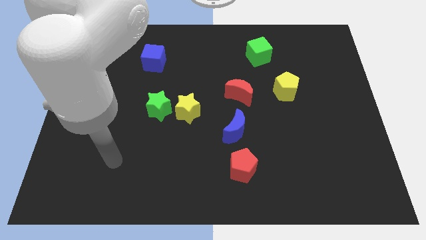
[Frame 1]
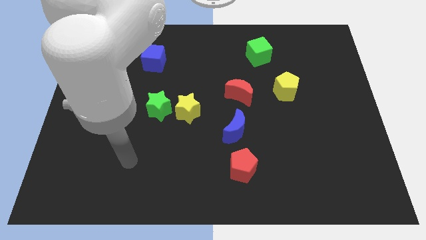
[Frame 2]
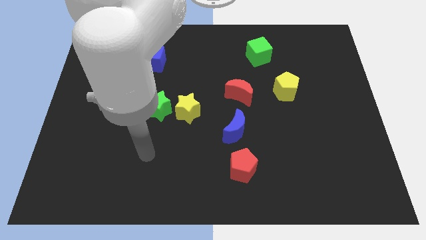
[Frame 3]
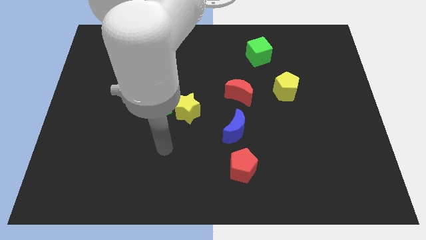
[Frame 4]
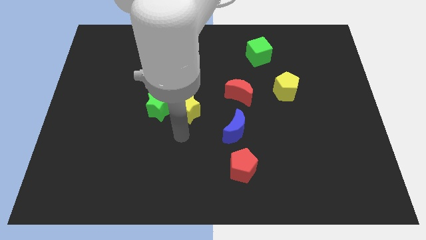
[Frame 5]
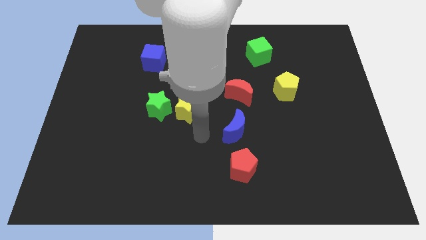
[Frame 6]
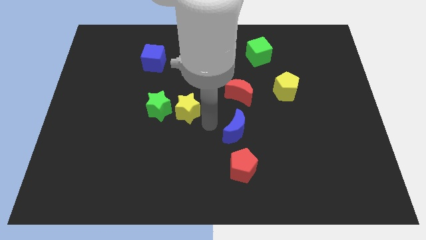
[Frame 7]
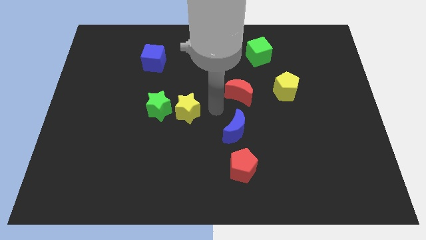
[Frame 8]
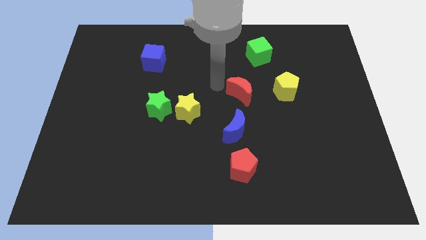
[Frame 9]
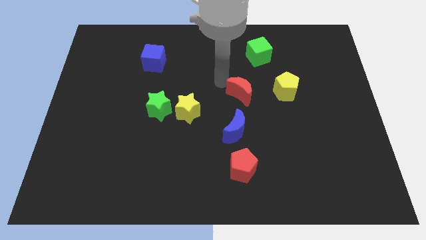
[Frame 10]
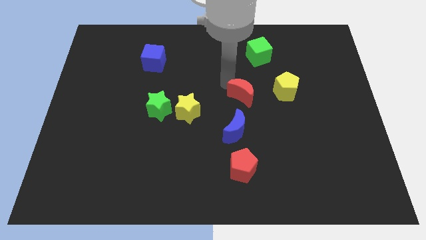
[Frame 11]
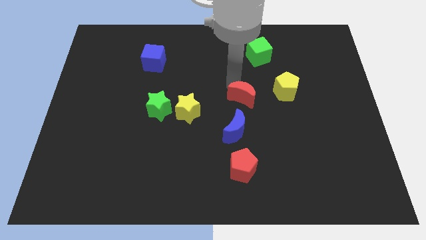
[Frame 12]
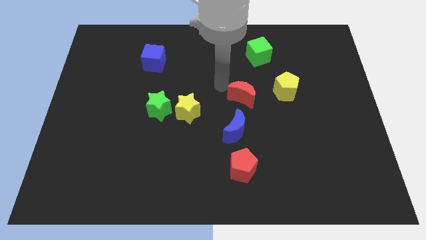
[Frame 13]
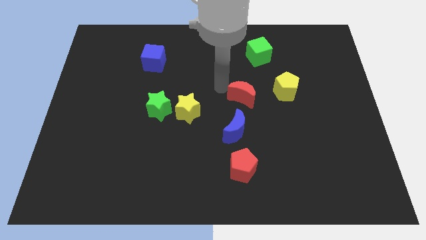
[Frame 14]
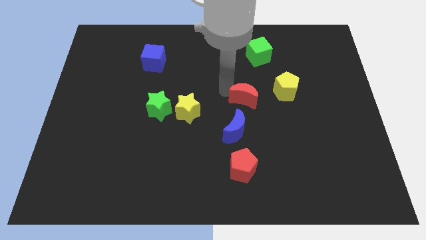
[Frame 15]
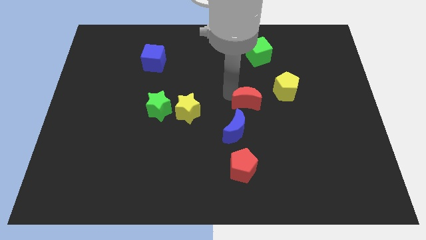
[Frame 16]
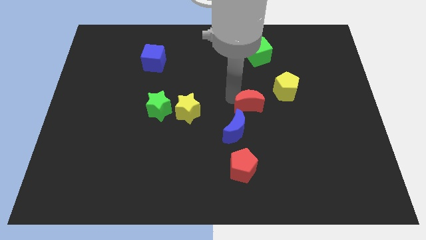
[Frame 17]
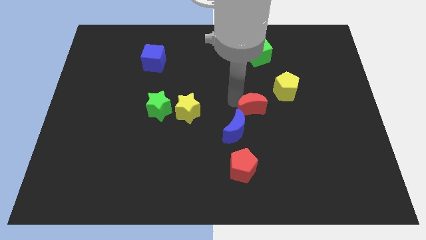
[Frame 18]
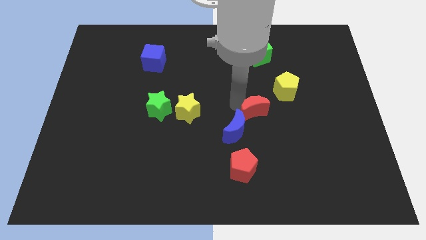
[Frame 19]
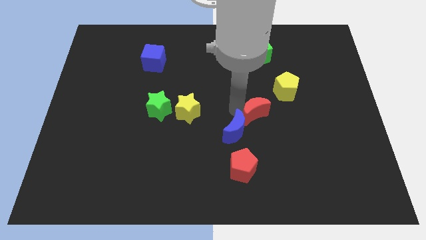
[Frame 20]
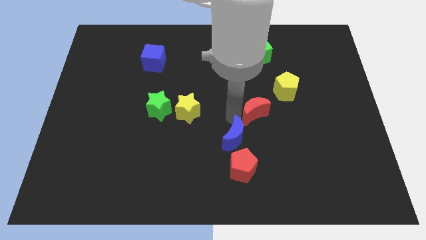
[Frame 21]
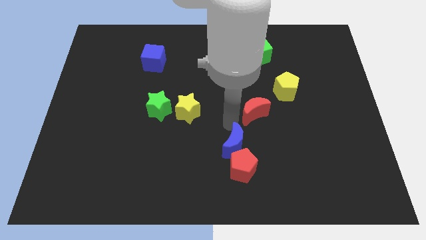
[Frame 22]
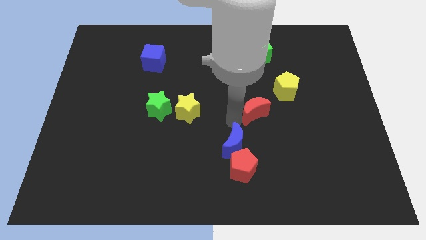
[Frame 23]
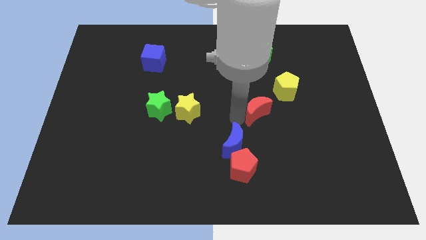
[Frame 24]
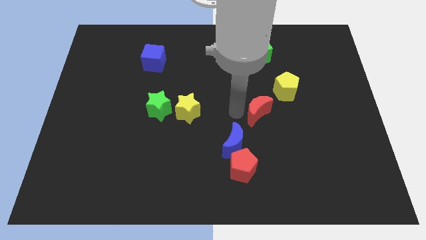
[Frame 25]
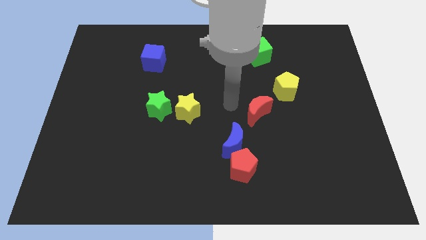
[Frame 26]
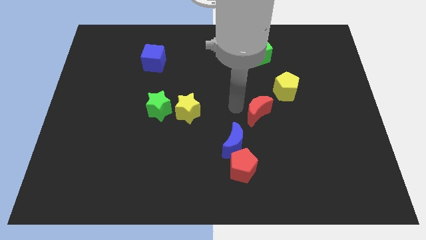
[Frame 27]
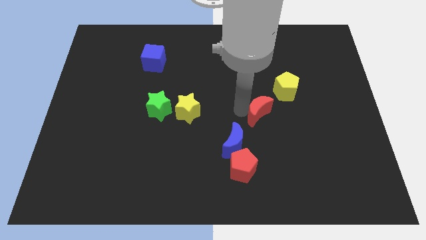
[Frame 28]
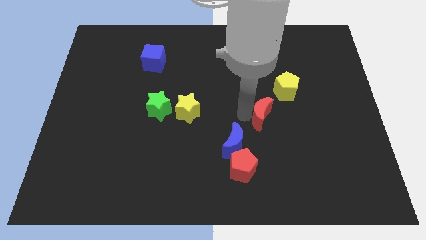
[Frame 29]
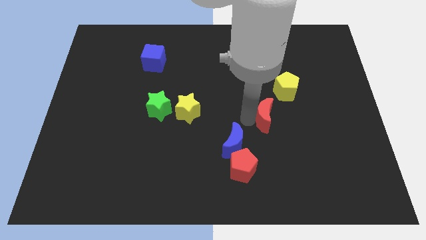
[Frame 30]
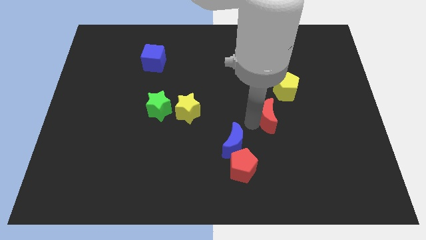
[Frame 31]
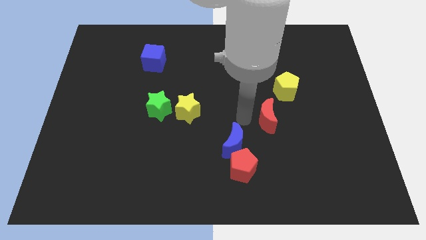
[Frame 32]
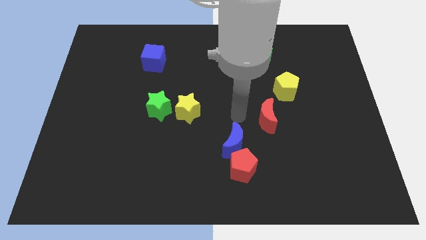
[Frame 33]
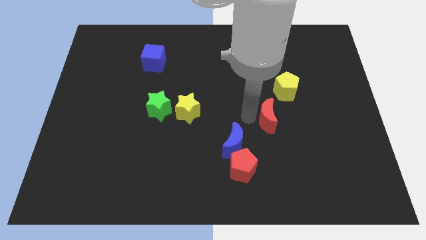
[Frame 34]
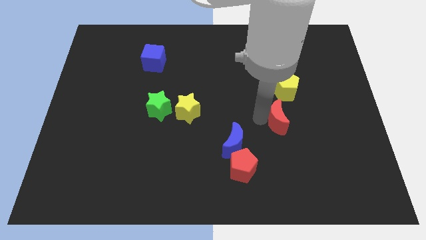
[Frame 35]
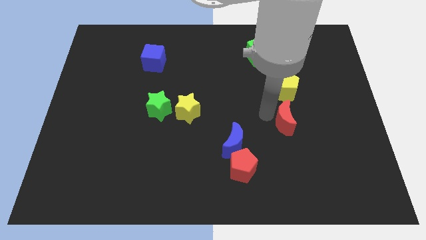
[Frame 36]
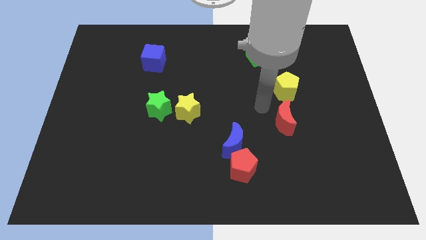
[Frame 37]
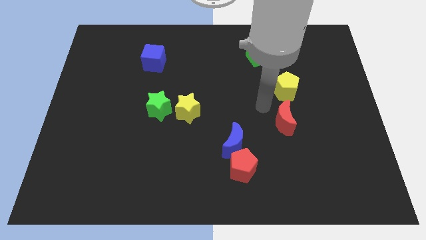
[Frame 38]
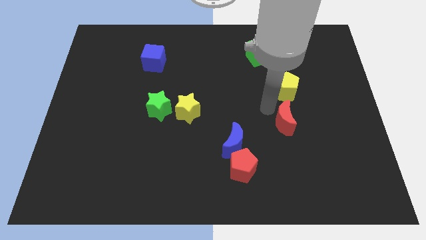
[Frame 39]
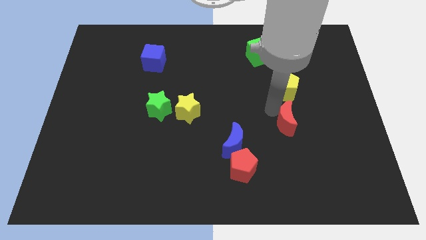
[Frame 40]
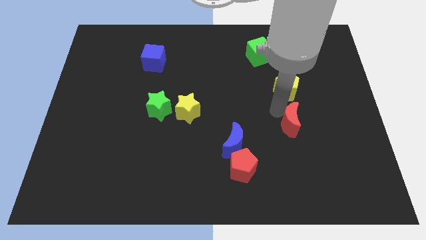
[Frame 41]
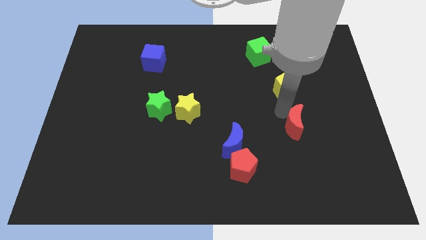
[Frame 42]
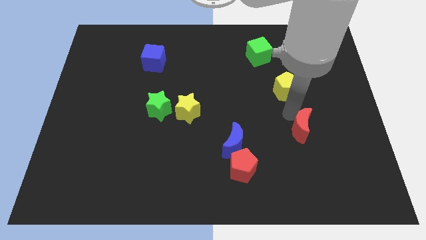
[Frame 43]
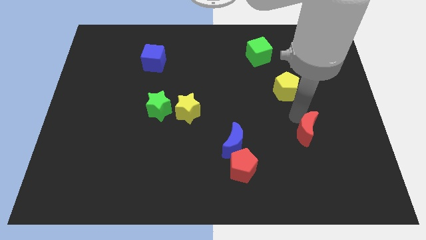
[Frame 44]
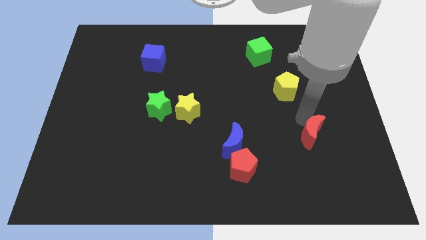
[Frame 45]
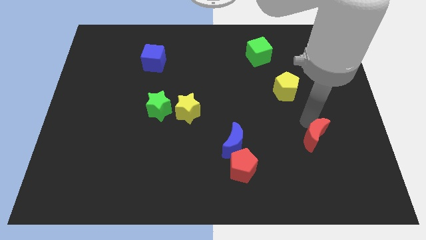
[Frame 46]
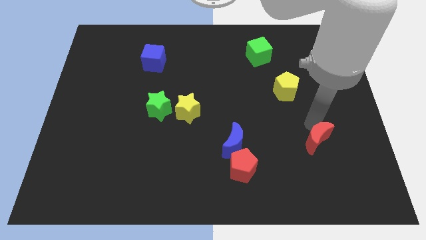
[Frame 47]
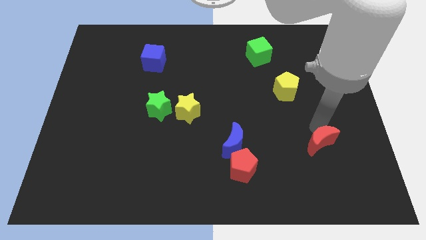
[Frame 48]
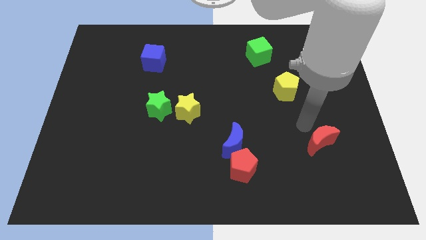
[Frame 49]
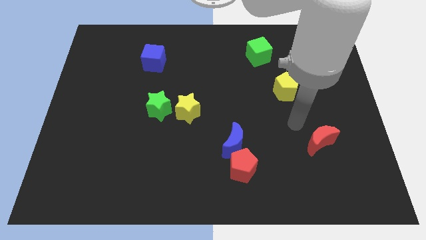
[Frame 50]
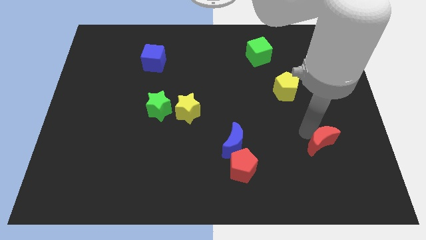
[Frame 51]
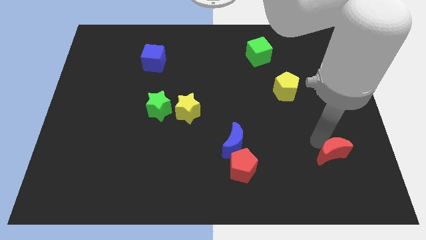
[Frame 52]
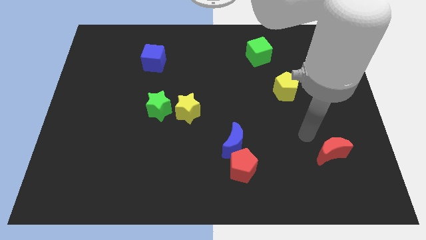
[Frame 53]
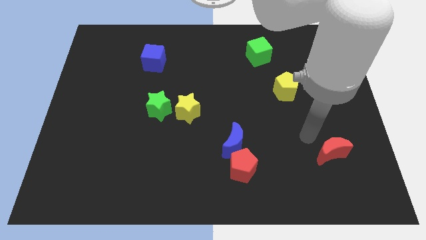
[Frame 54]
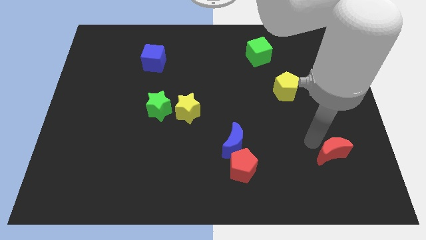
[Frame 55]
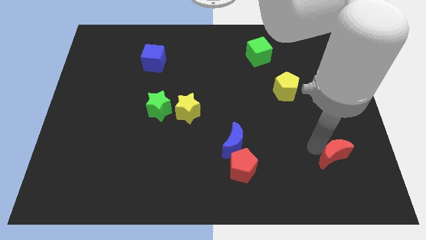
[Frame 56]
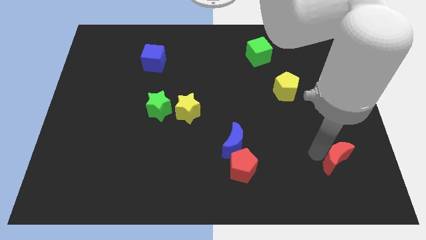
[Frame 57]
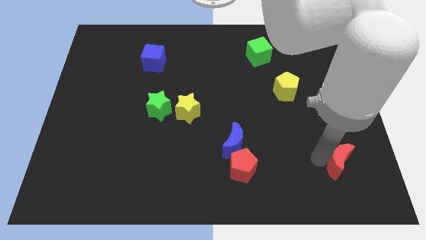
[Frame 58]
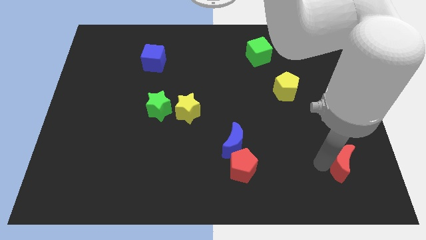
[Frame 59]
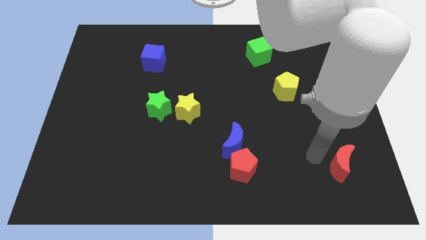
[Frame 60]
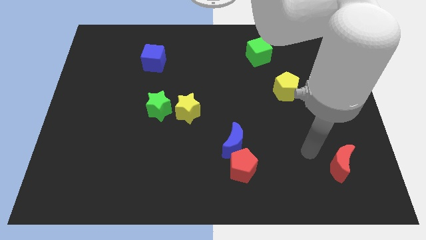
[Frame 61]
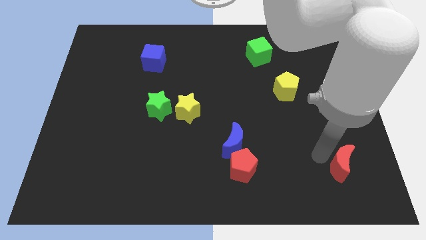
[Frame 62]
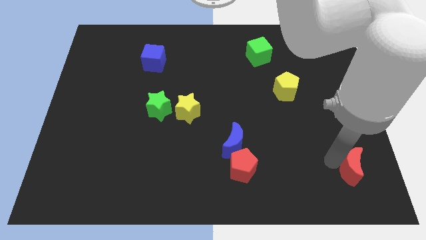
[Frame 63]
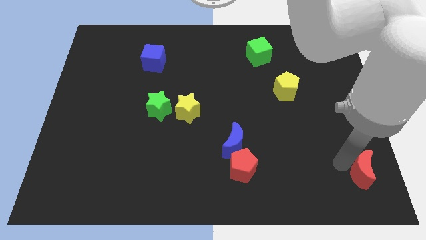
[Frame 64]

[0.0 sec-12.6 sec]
push the red moon to the bottom right
